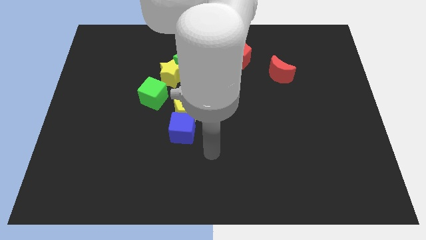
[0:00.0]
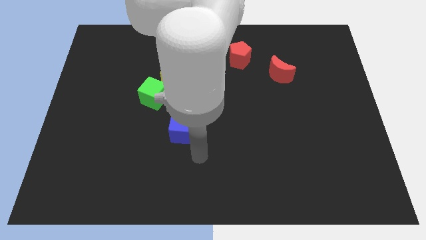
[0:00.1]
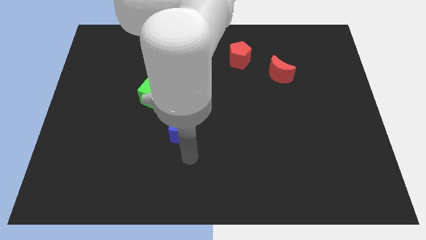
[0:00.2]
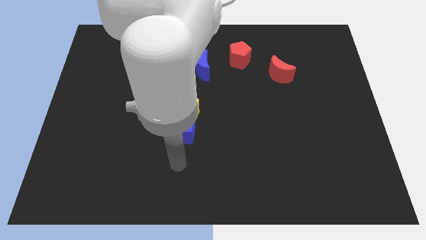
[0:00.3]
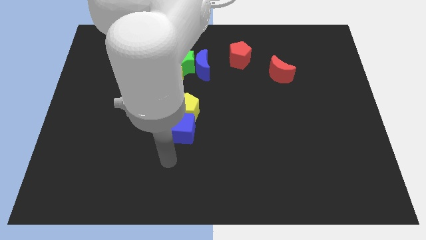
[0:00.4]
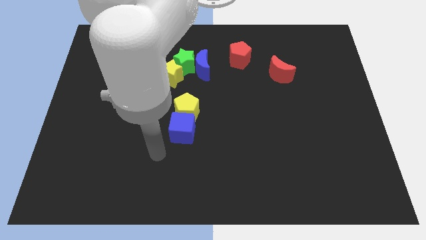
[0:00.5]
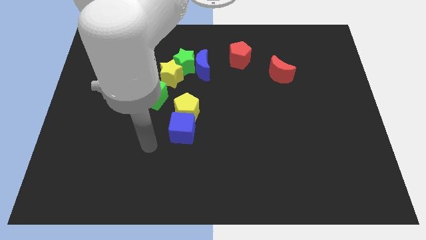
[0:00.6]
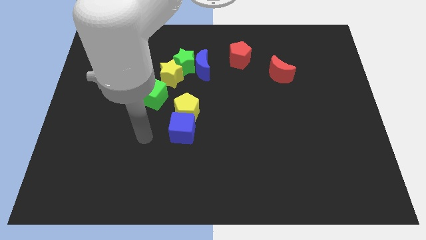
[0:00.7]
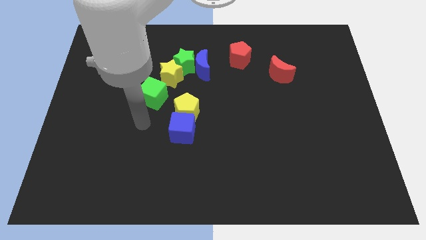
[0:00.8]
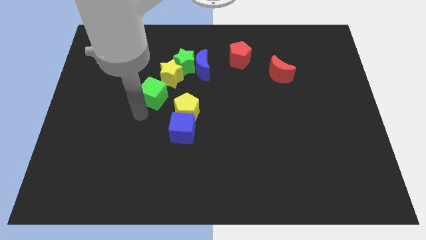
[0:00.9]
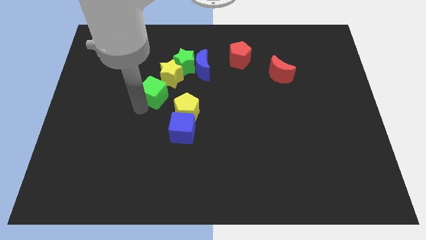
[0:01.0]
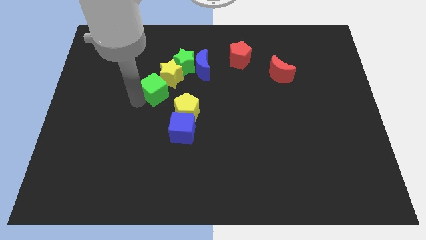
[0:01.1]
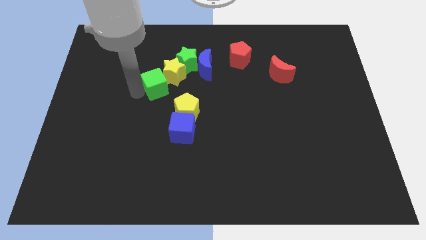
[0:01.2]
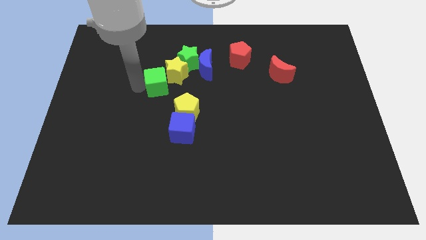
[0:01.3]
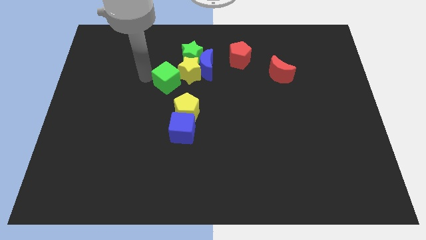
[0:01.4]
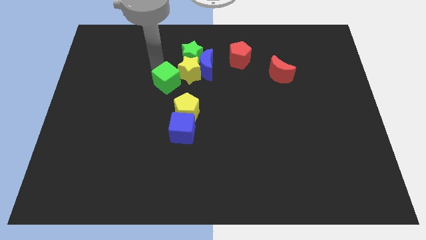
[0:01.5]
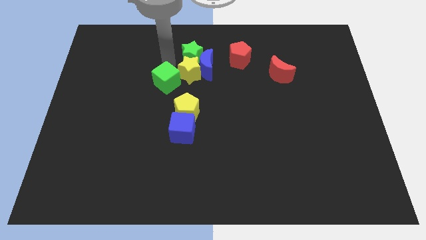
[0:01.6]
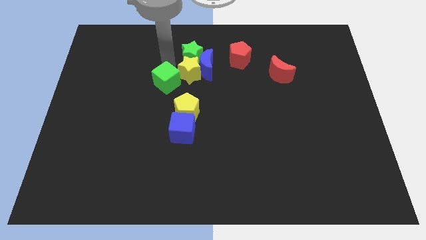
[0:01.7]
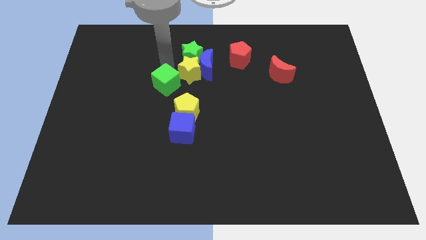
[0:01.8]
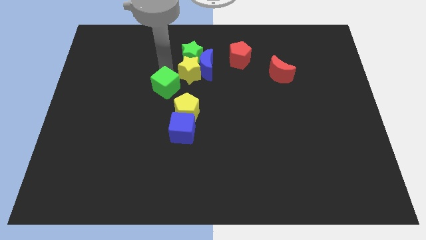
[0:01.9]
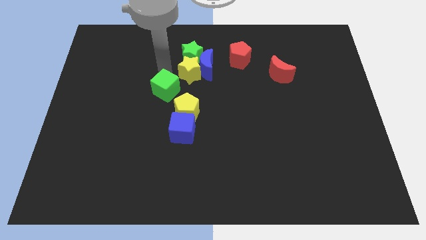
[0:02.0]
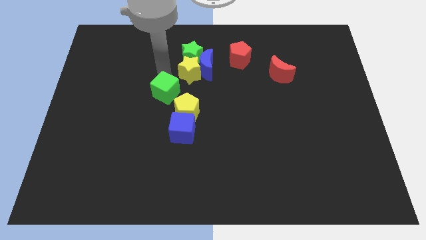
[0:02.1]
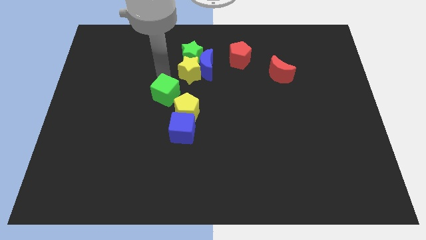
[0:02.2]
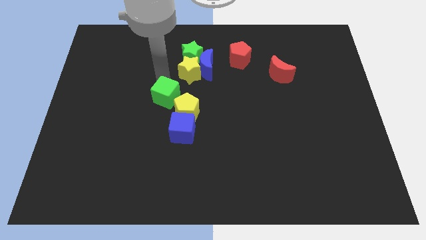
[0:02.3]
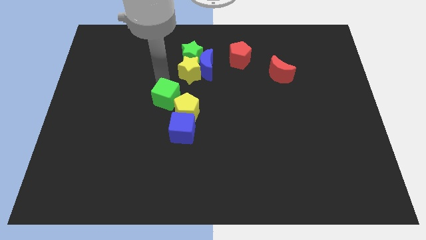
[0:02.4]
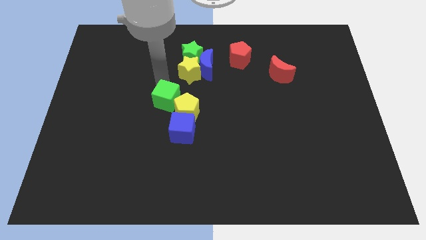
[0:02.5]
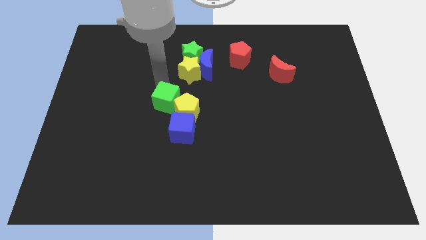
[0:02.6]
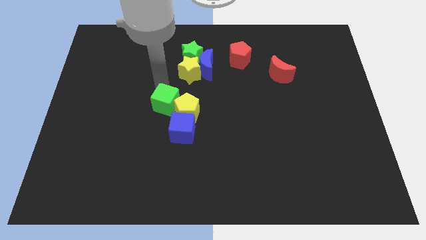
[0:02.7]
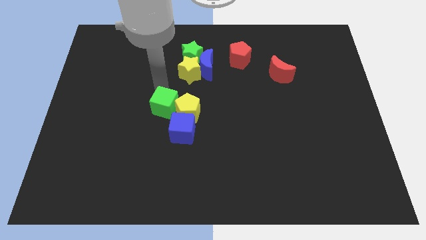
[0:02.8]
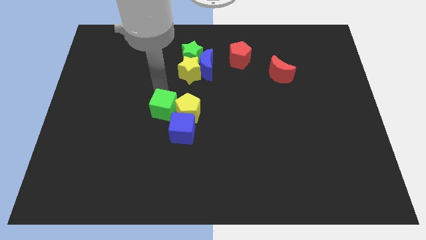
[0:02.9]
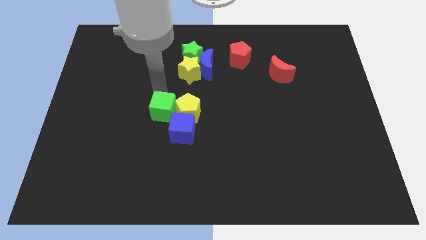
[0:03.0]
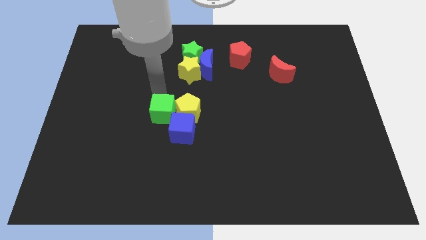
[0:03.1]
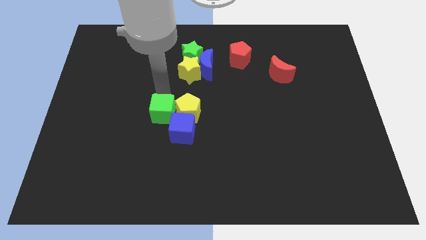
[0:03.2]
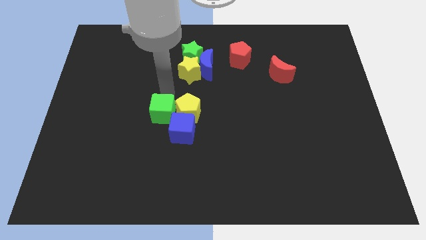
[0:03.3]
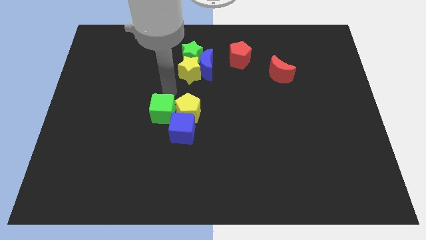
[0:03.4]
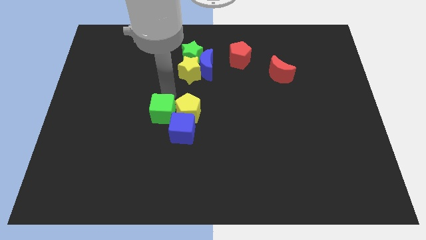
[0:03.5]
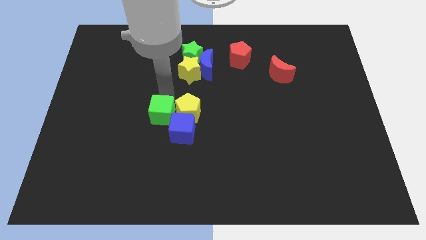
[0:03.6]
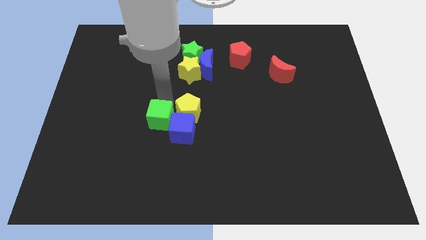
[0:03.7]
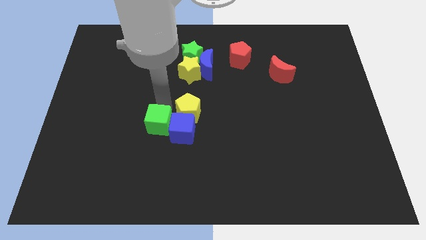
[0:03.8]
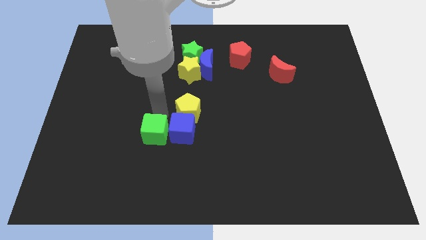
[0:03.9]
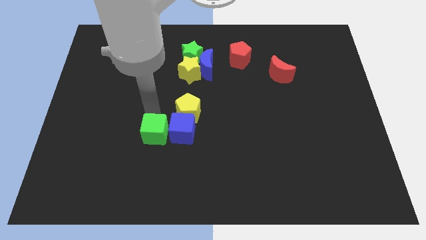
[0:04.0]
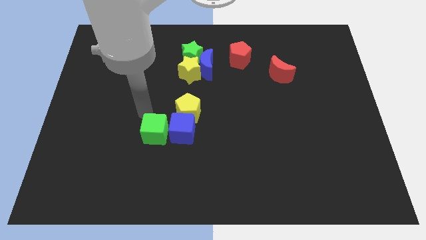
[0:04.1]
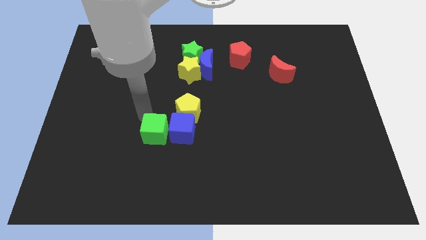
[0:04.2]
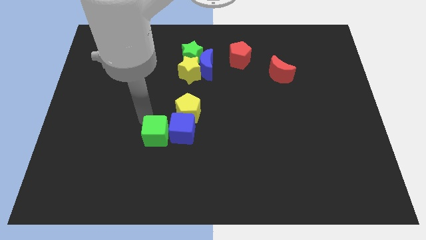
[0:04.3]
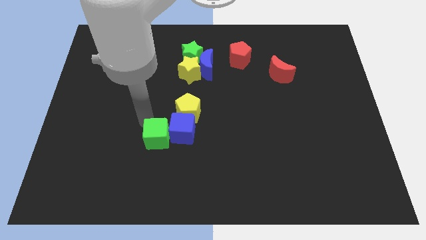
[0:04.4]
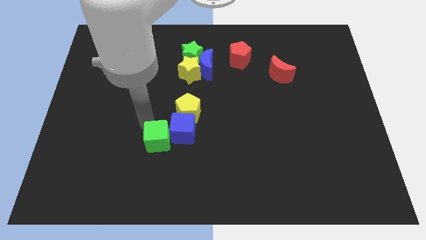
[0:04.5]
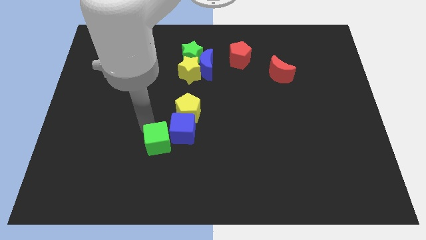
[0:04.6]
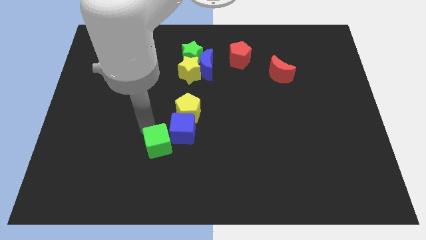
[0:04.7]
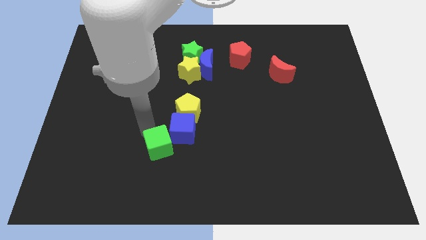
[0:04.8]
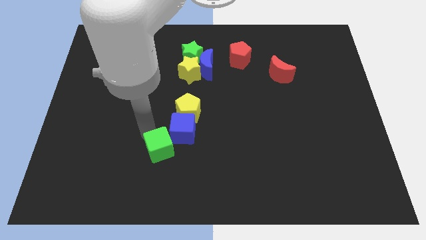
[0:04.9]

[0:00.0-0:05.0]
slide the green cube to the bottom side of the blue cube

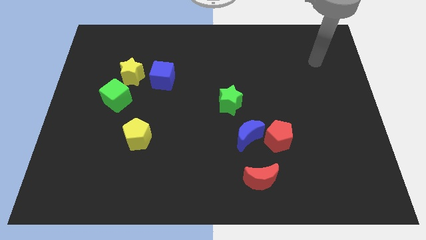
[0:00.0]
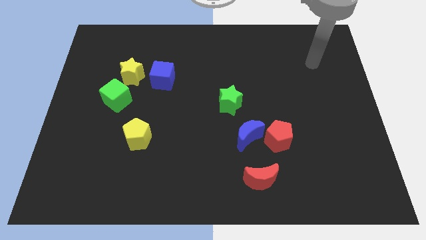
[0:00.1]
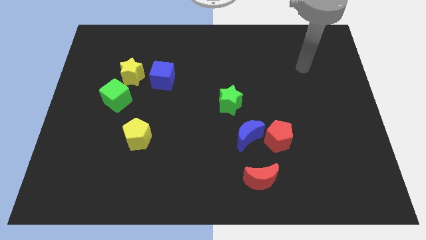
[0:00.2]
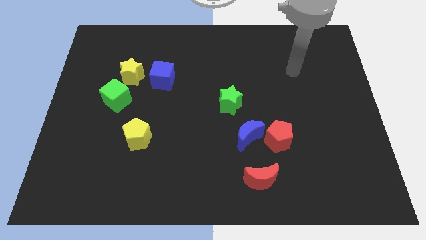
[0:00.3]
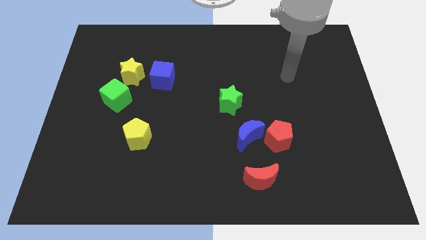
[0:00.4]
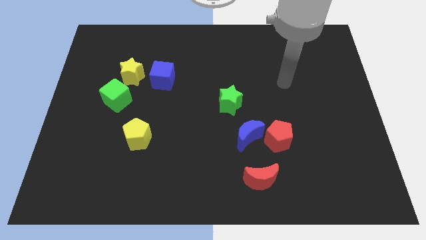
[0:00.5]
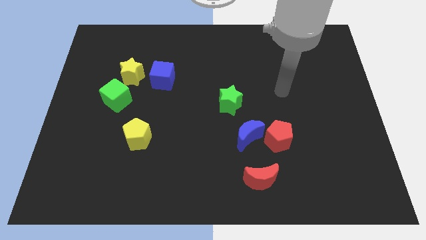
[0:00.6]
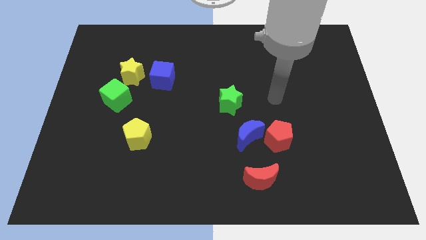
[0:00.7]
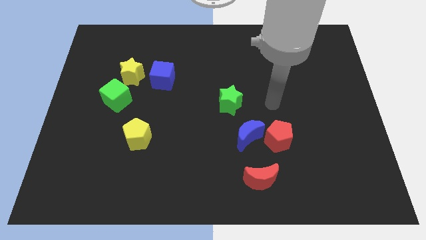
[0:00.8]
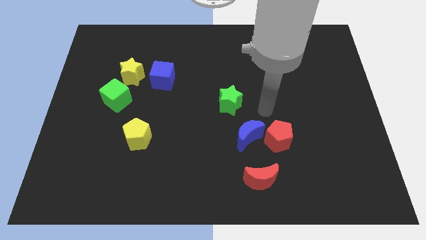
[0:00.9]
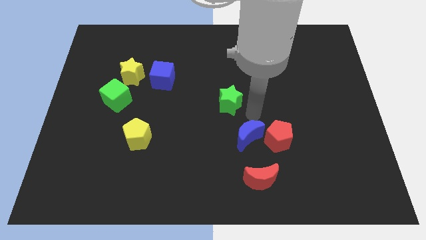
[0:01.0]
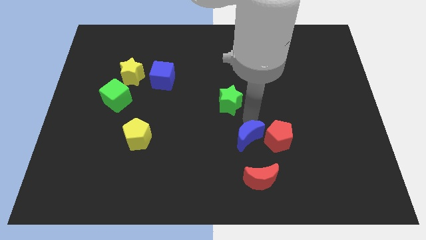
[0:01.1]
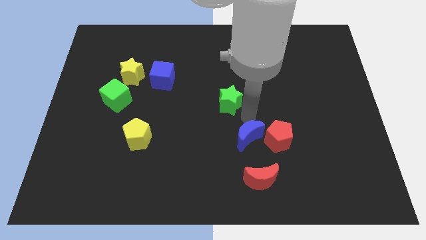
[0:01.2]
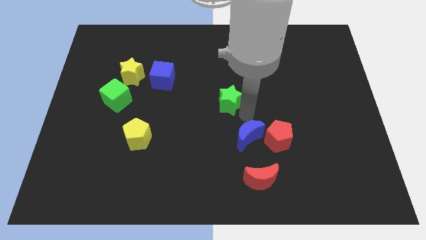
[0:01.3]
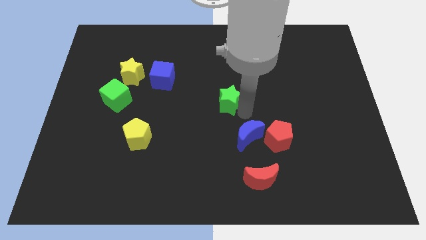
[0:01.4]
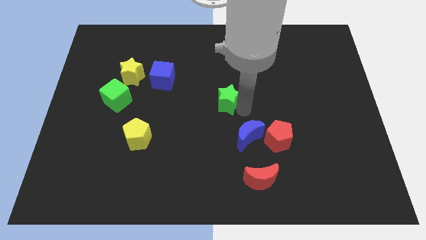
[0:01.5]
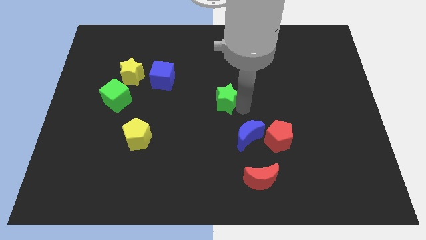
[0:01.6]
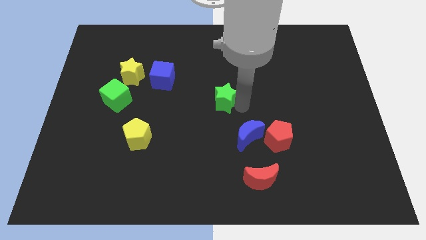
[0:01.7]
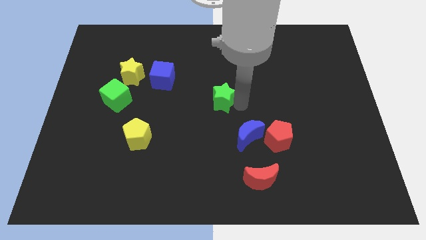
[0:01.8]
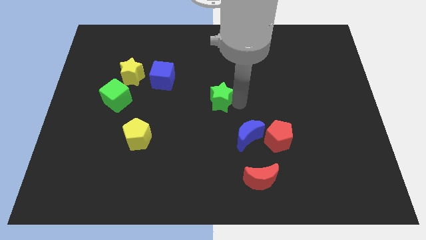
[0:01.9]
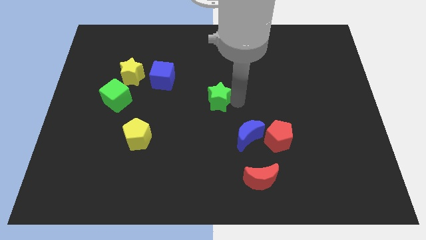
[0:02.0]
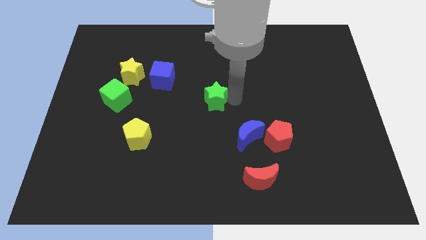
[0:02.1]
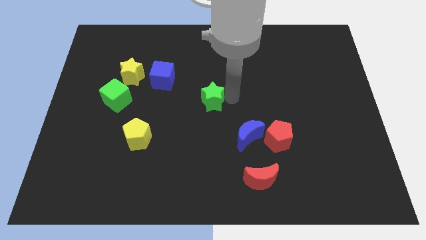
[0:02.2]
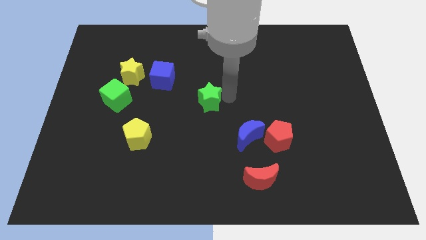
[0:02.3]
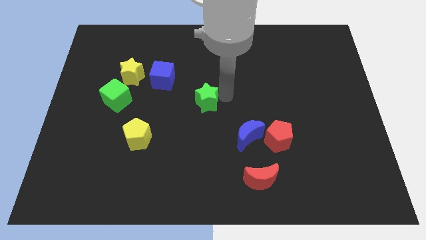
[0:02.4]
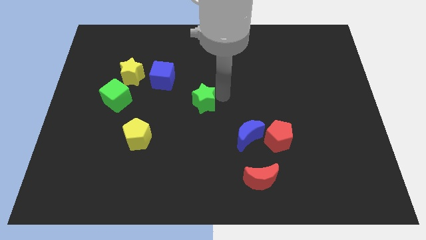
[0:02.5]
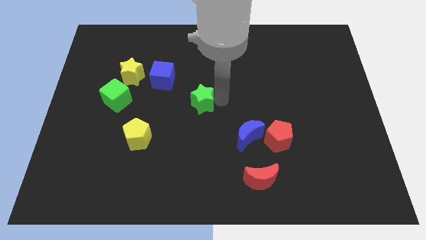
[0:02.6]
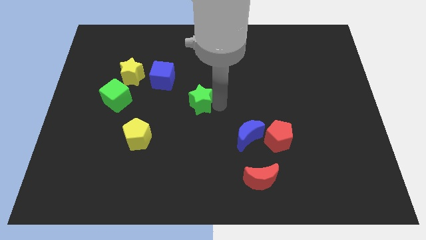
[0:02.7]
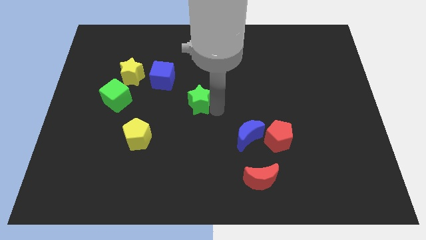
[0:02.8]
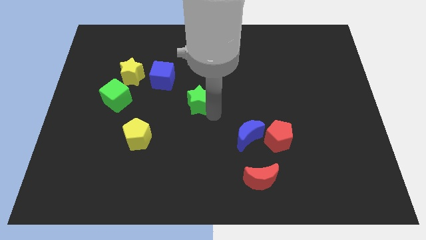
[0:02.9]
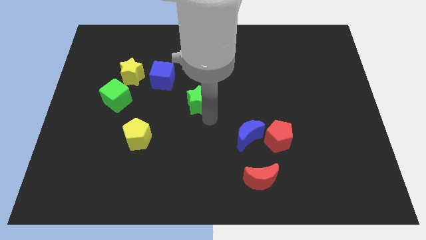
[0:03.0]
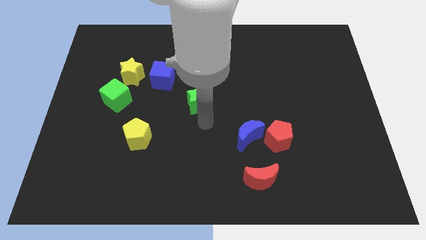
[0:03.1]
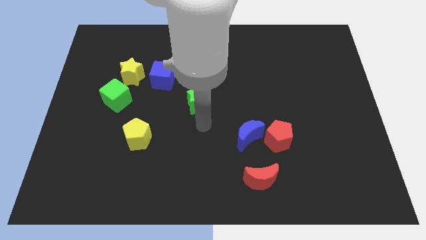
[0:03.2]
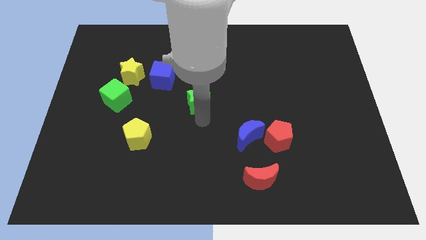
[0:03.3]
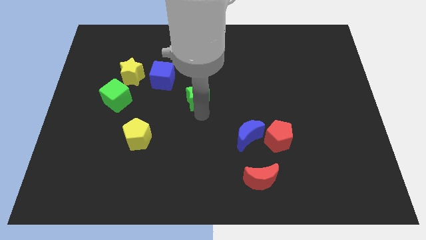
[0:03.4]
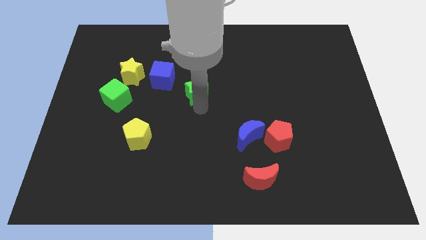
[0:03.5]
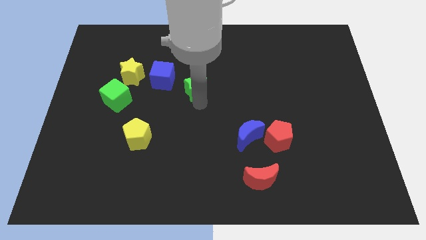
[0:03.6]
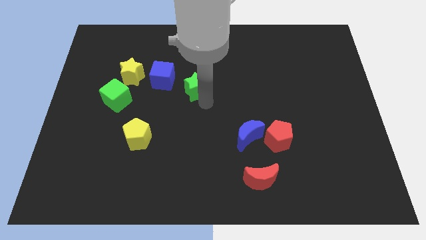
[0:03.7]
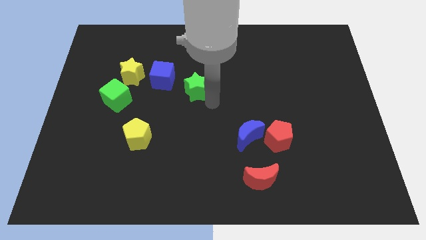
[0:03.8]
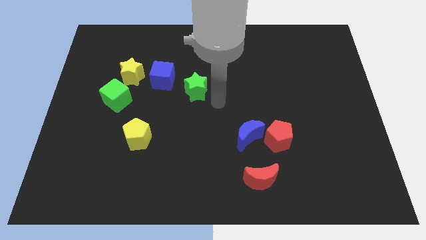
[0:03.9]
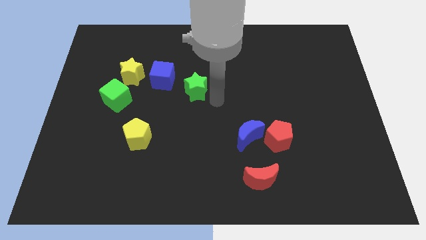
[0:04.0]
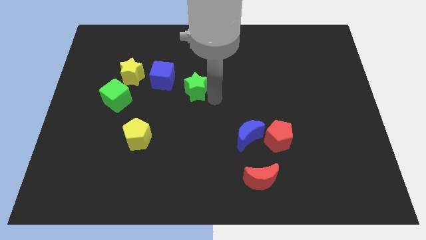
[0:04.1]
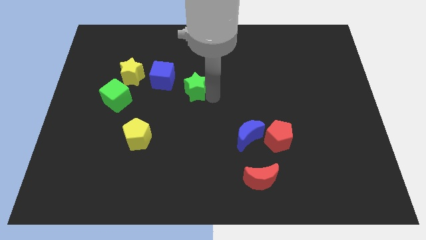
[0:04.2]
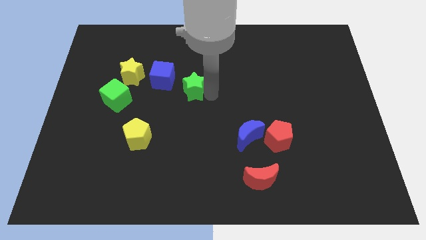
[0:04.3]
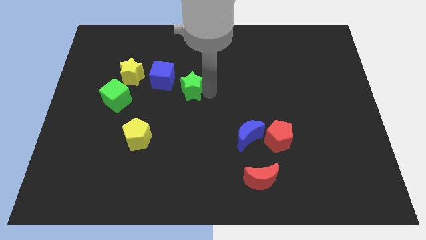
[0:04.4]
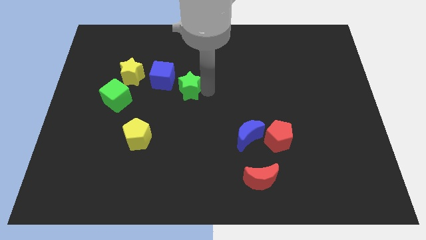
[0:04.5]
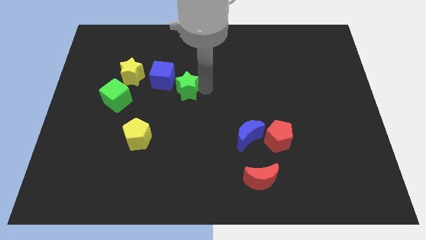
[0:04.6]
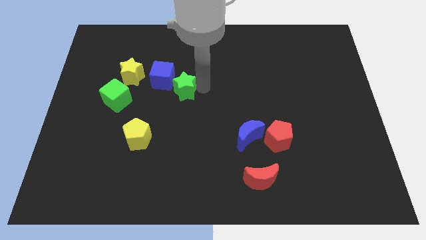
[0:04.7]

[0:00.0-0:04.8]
push the green star right of the yellow star
